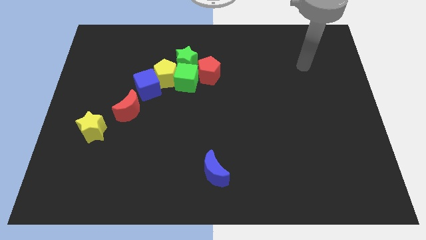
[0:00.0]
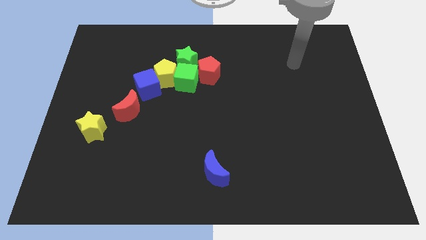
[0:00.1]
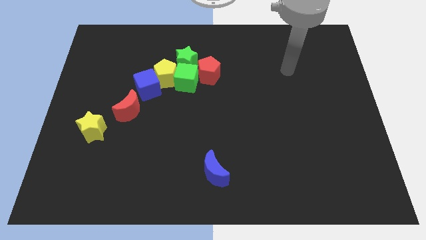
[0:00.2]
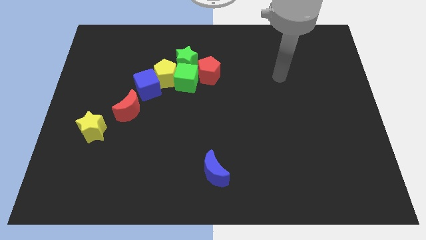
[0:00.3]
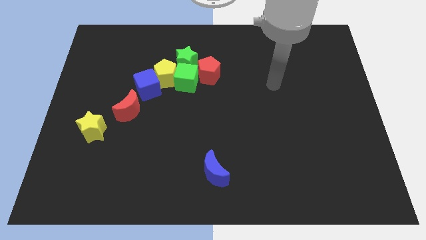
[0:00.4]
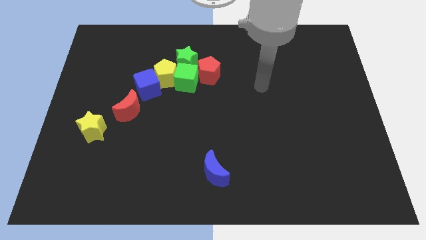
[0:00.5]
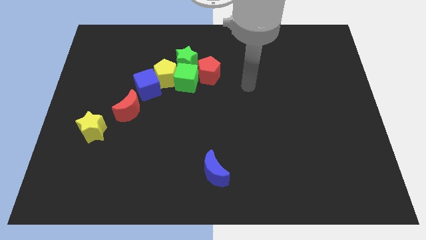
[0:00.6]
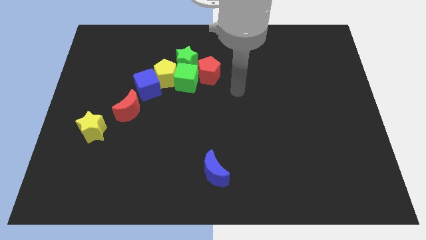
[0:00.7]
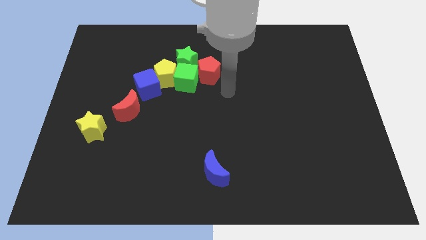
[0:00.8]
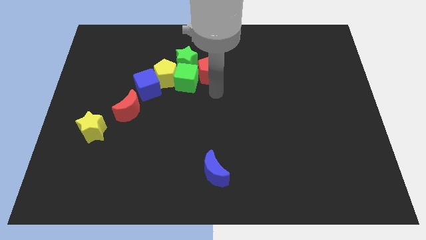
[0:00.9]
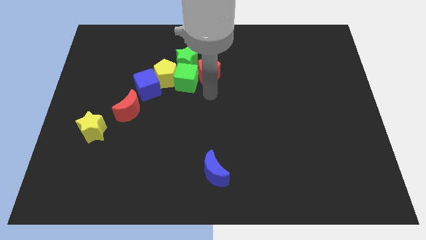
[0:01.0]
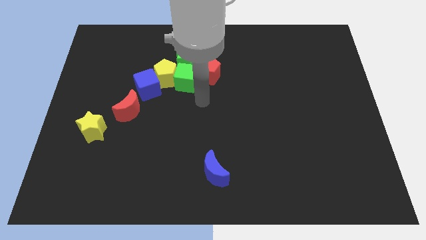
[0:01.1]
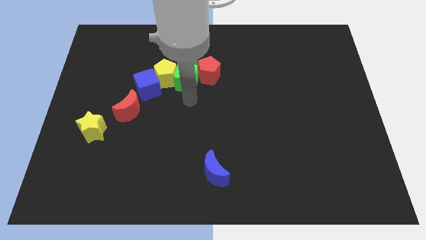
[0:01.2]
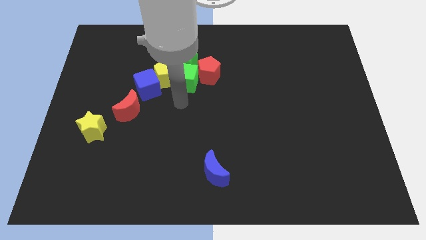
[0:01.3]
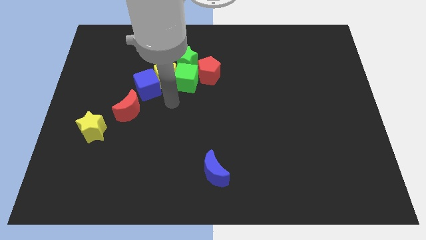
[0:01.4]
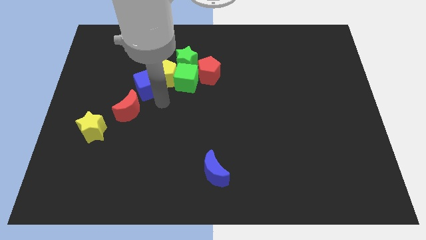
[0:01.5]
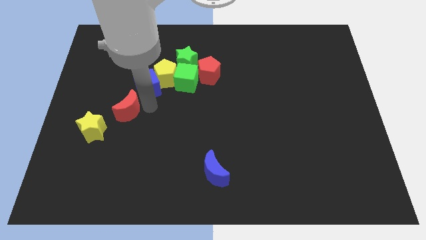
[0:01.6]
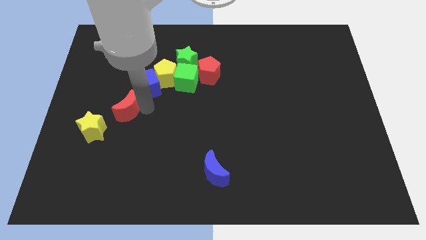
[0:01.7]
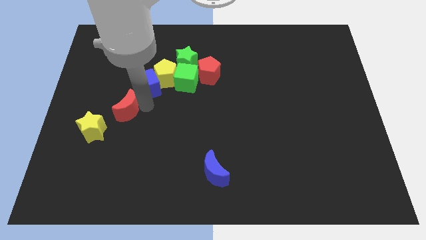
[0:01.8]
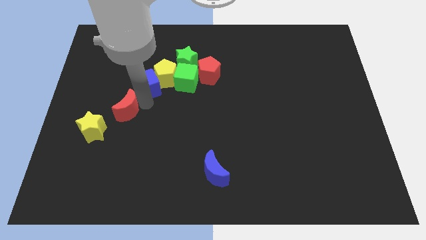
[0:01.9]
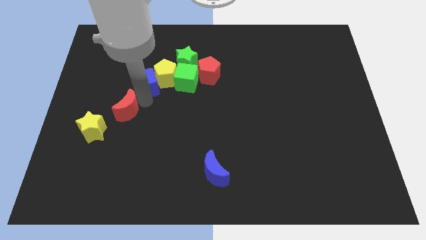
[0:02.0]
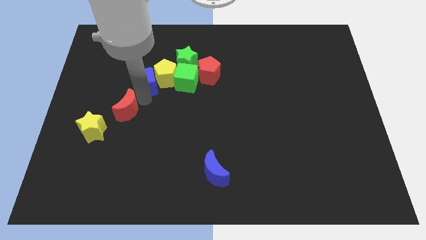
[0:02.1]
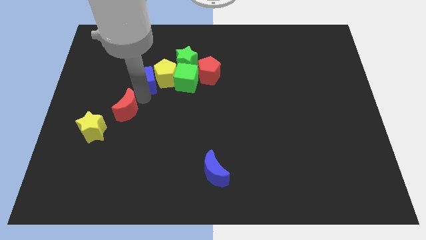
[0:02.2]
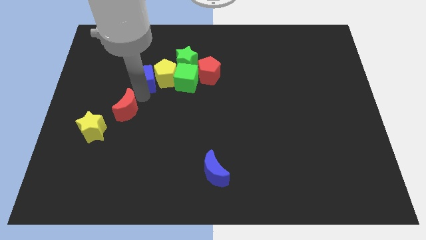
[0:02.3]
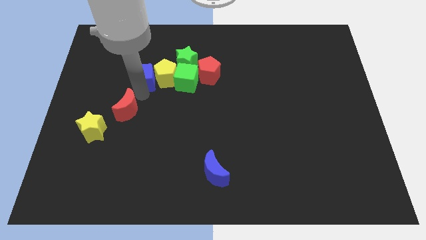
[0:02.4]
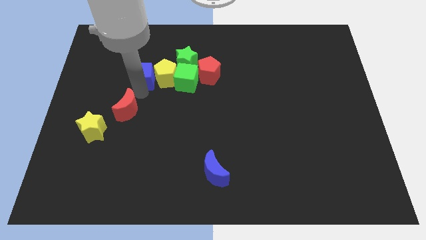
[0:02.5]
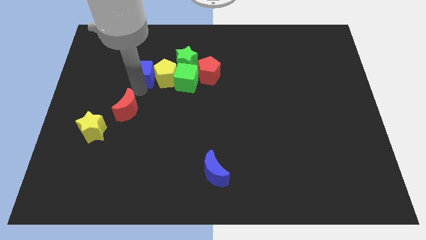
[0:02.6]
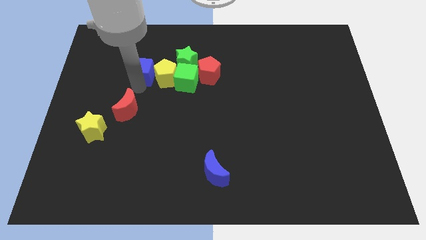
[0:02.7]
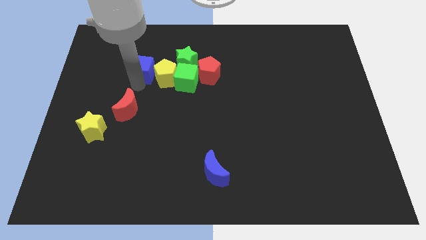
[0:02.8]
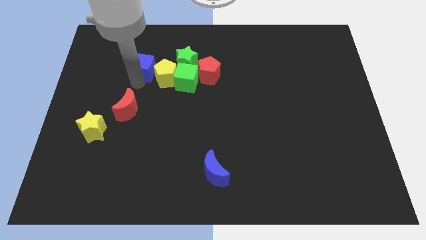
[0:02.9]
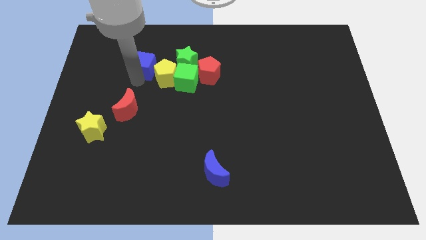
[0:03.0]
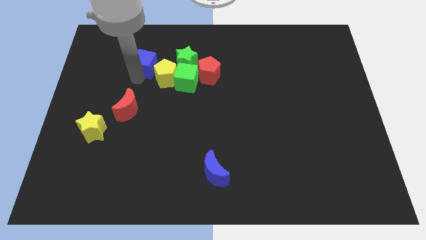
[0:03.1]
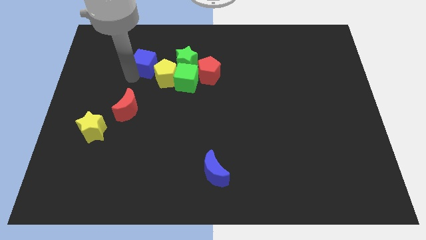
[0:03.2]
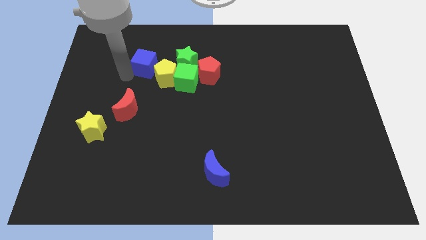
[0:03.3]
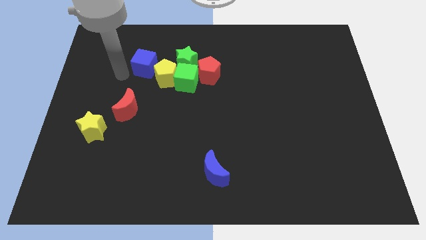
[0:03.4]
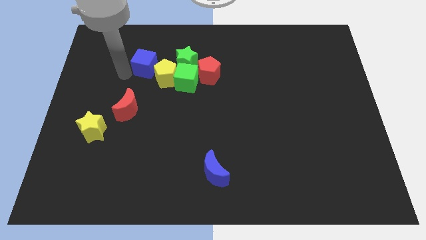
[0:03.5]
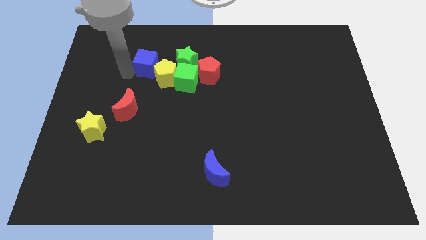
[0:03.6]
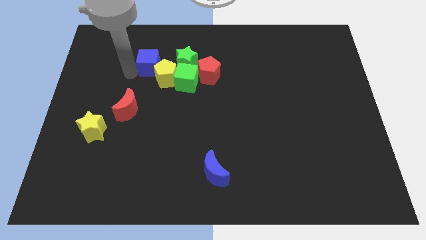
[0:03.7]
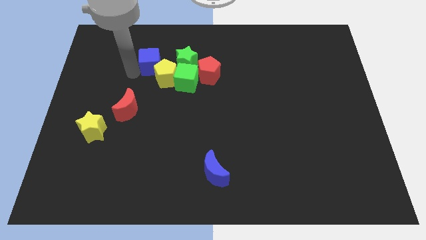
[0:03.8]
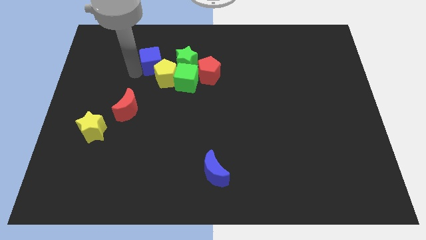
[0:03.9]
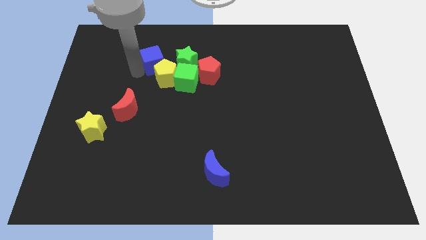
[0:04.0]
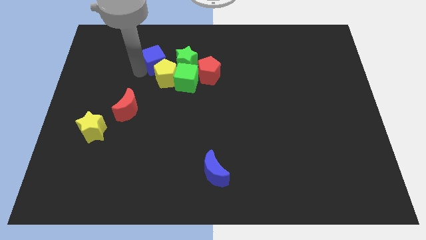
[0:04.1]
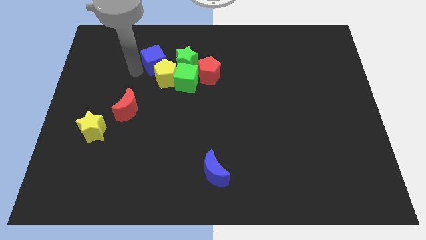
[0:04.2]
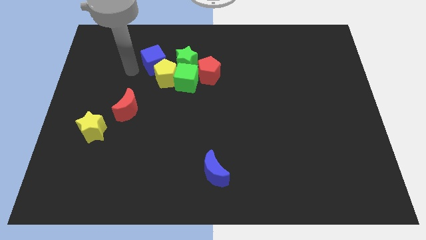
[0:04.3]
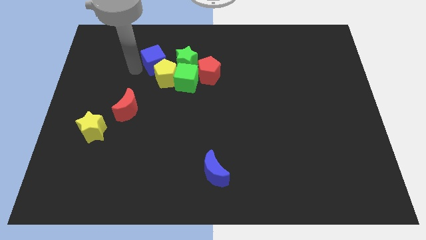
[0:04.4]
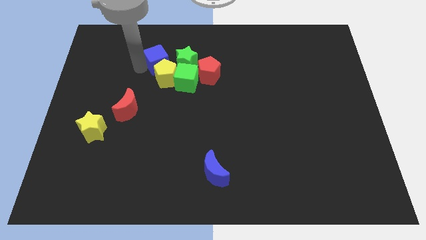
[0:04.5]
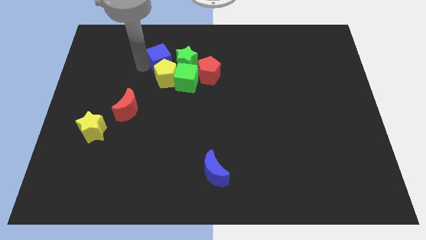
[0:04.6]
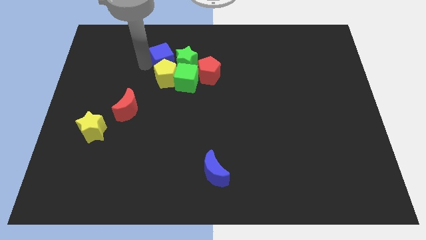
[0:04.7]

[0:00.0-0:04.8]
put the blue cube next to the green star

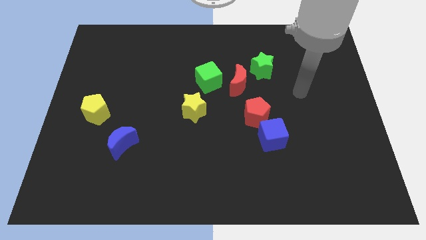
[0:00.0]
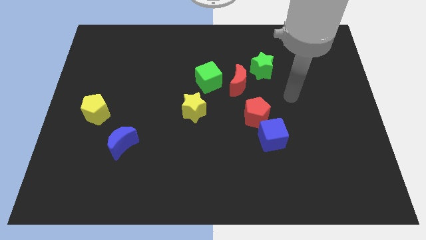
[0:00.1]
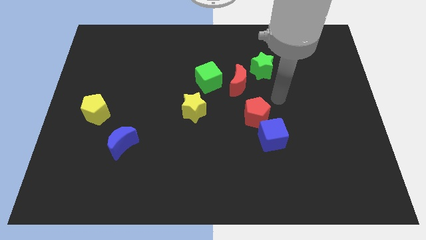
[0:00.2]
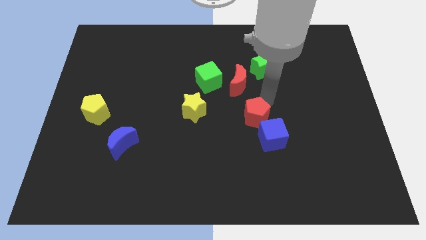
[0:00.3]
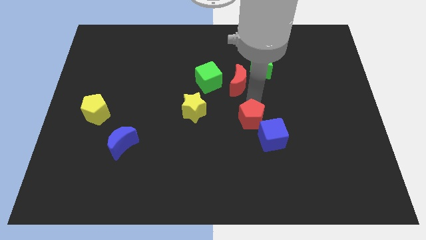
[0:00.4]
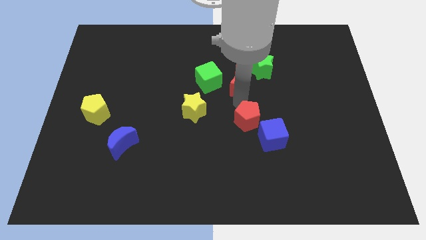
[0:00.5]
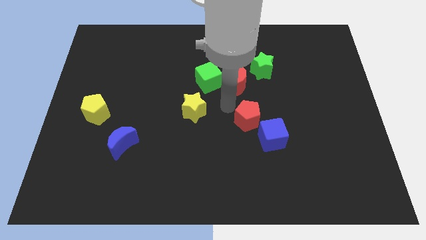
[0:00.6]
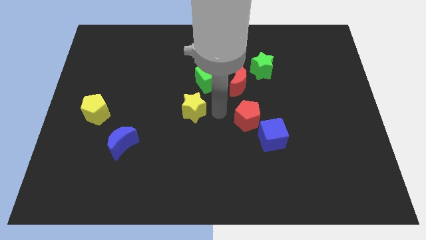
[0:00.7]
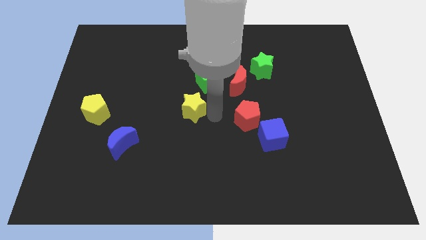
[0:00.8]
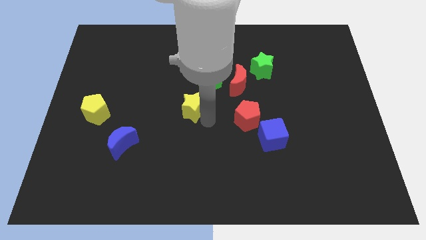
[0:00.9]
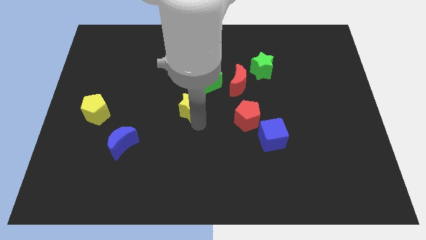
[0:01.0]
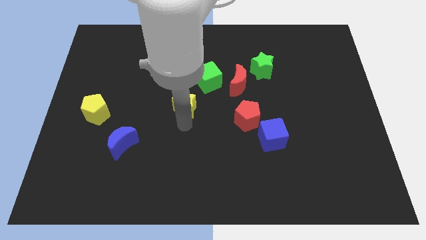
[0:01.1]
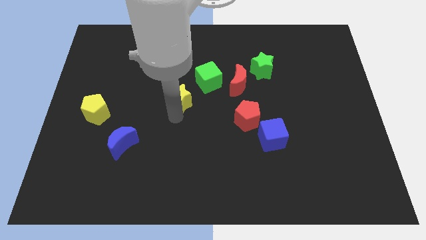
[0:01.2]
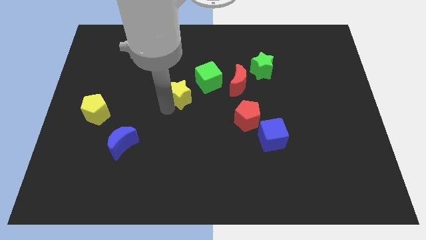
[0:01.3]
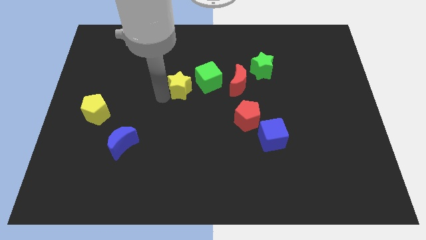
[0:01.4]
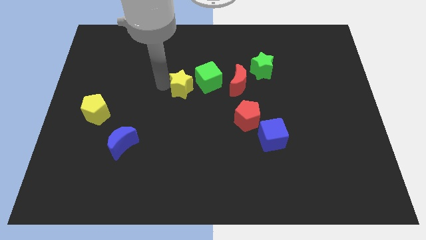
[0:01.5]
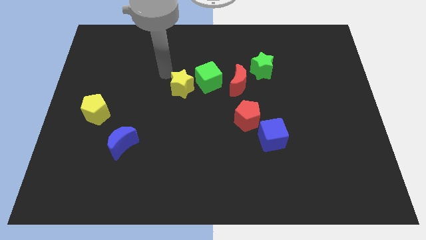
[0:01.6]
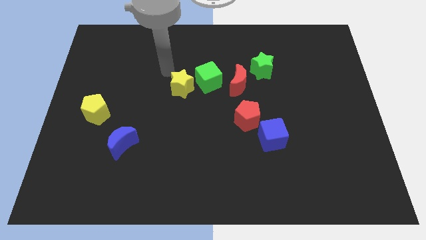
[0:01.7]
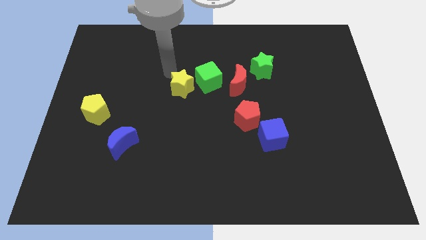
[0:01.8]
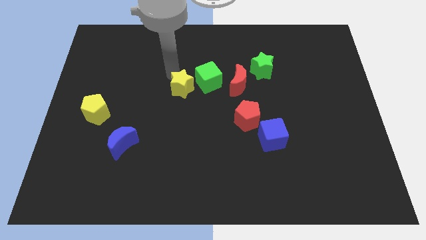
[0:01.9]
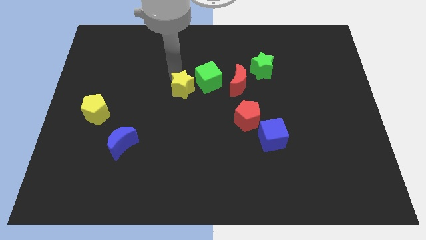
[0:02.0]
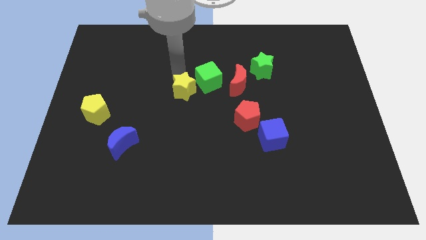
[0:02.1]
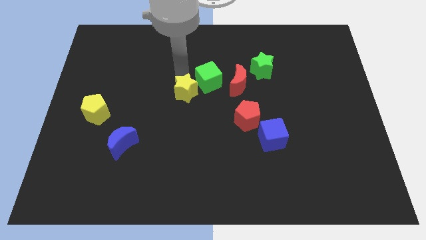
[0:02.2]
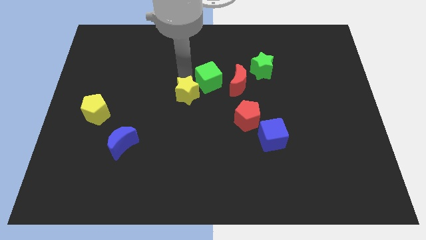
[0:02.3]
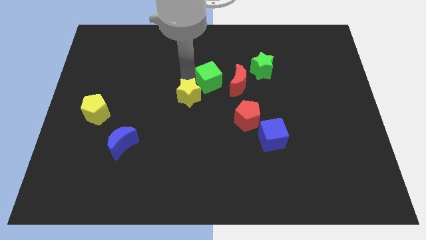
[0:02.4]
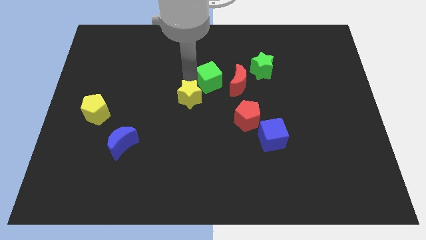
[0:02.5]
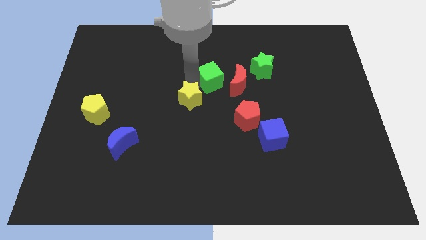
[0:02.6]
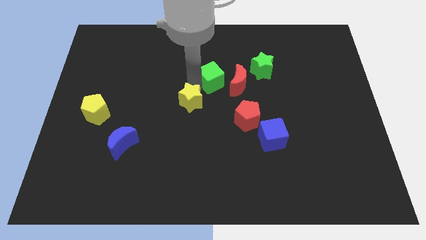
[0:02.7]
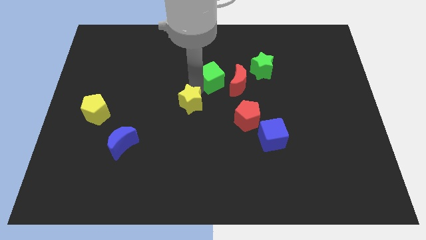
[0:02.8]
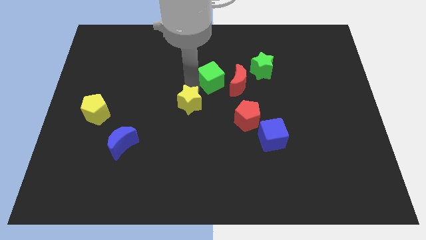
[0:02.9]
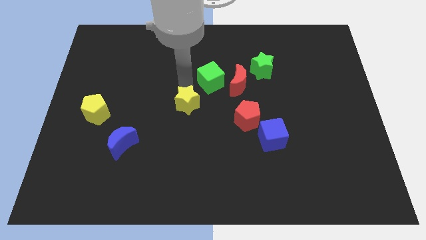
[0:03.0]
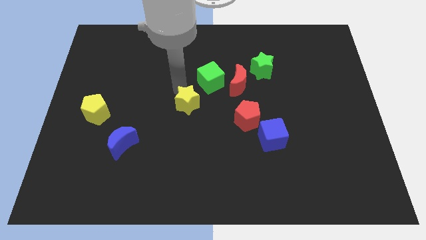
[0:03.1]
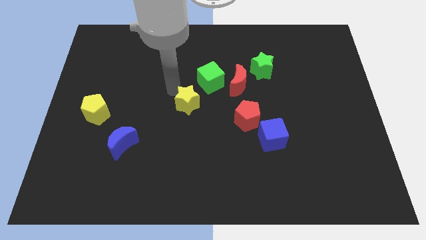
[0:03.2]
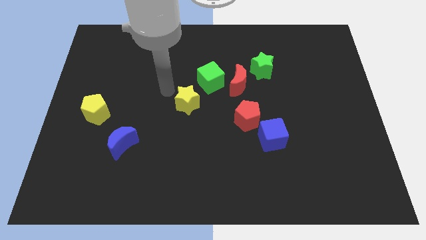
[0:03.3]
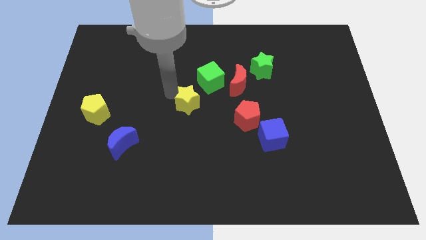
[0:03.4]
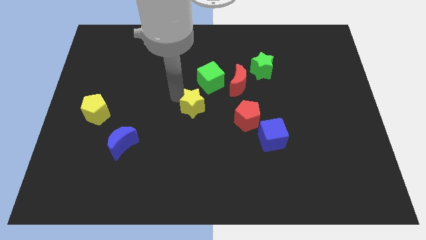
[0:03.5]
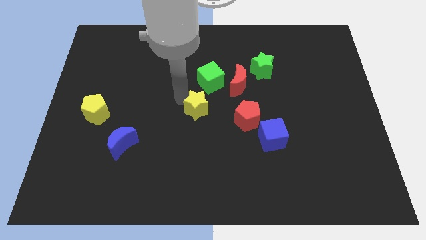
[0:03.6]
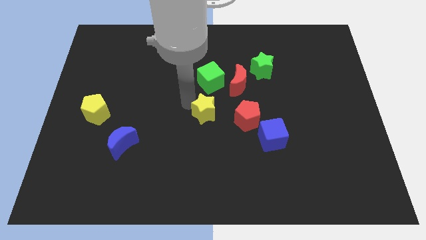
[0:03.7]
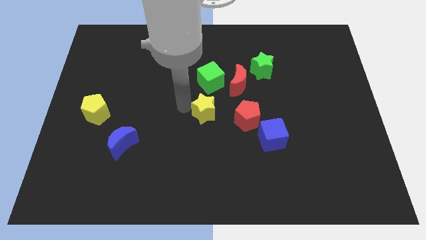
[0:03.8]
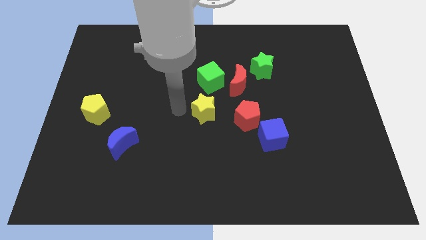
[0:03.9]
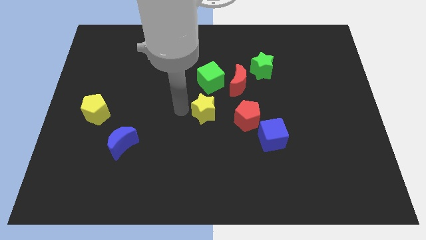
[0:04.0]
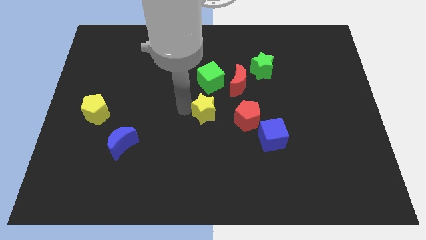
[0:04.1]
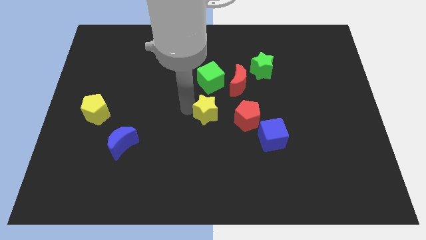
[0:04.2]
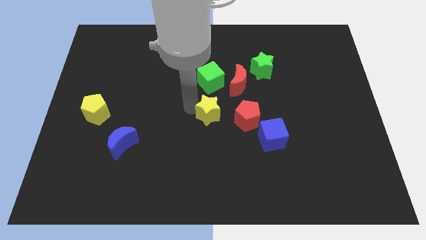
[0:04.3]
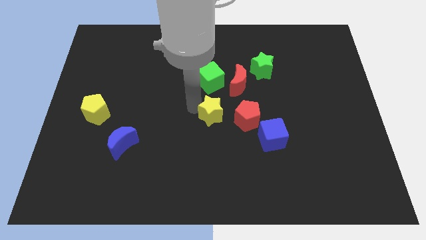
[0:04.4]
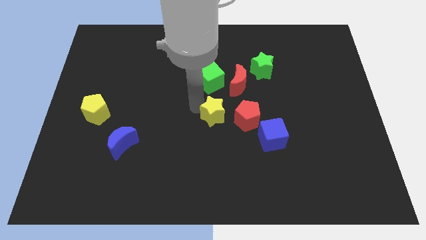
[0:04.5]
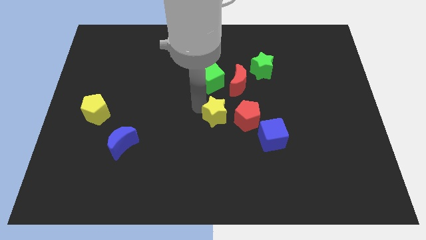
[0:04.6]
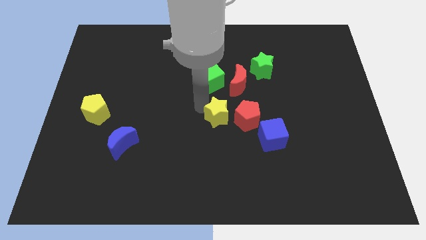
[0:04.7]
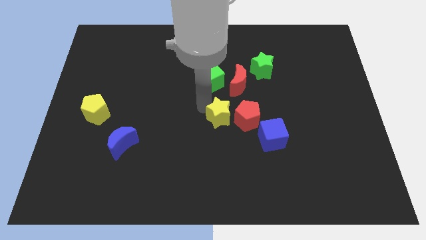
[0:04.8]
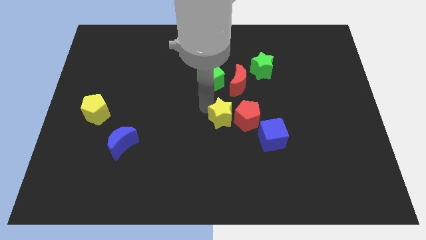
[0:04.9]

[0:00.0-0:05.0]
push the yellow star next to the red pentagon
